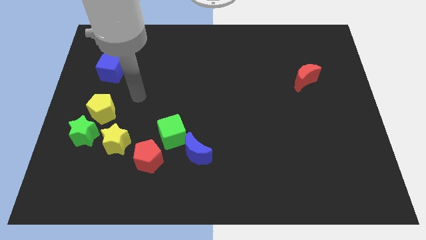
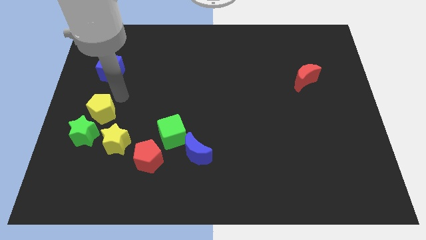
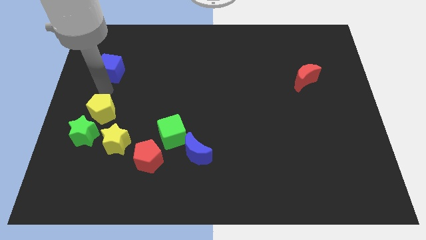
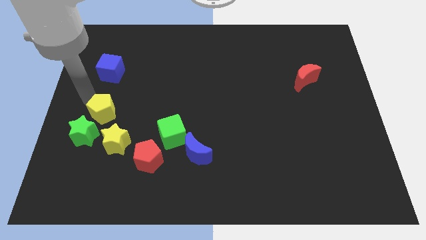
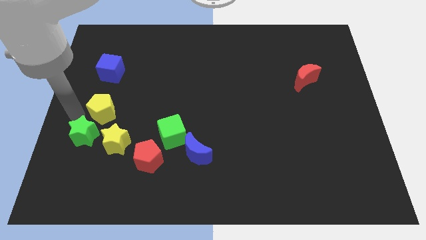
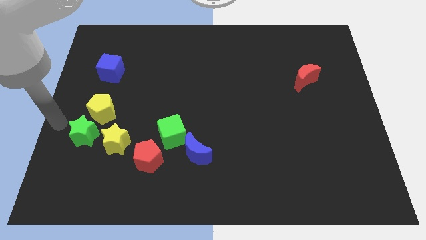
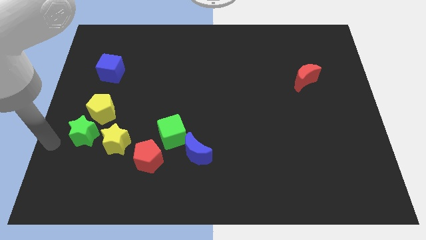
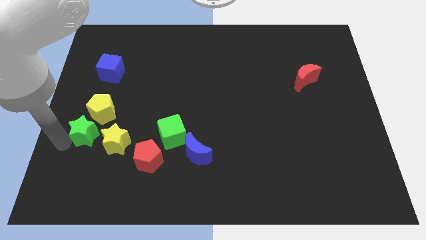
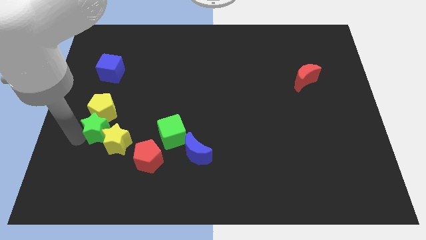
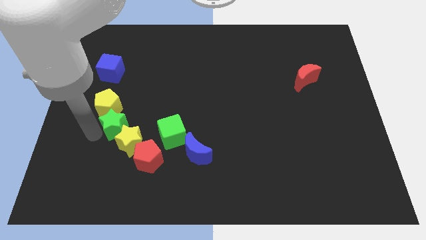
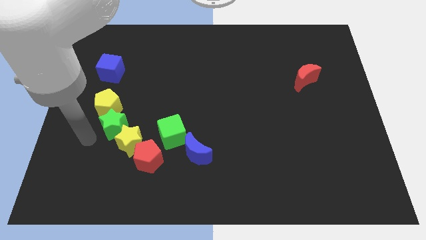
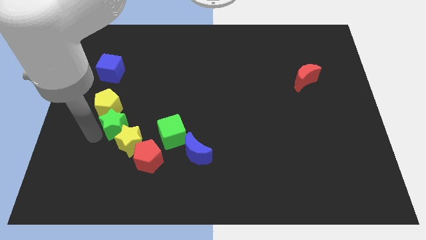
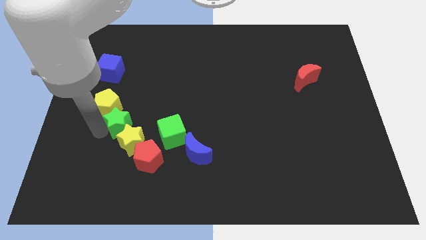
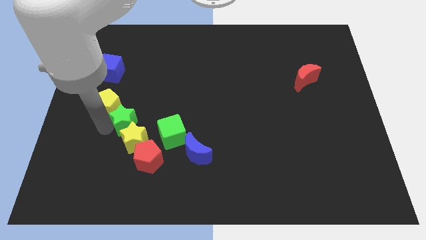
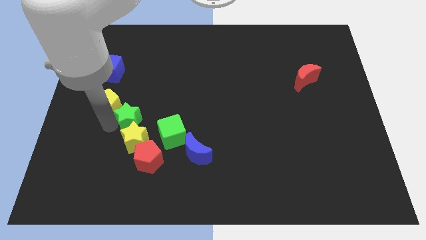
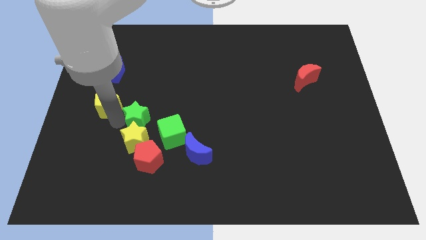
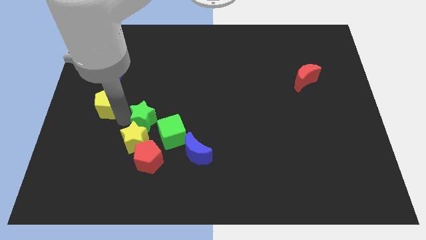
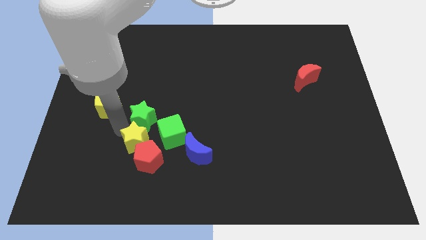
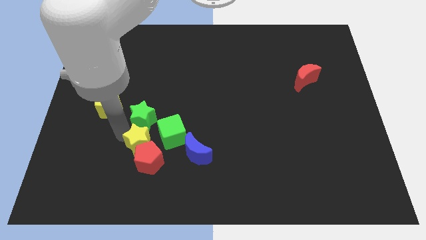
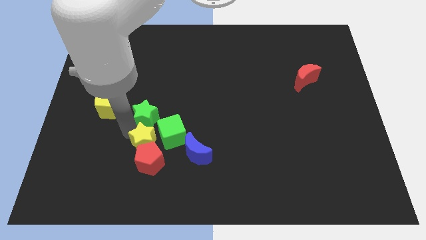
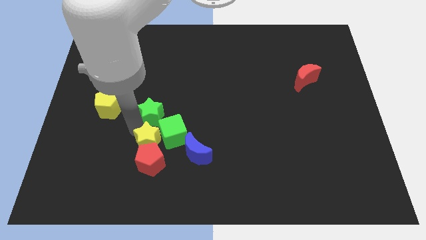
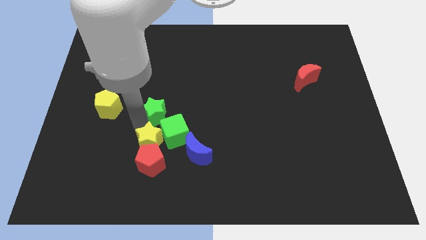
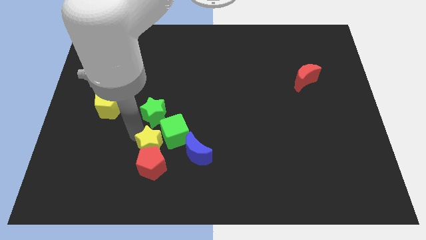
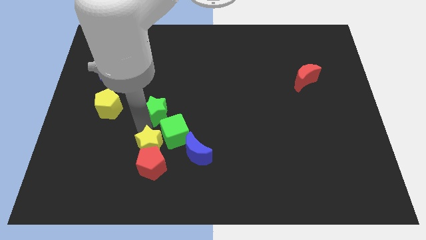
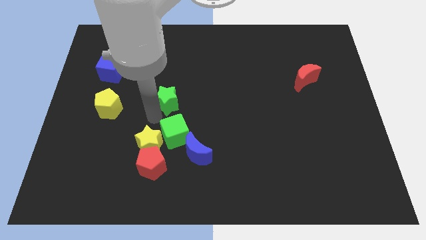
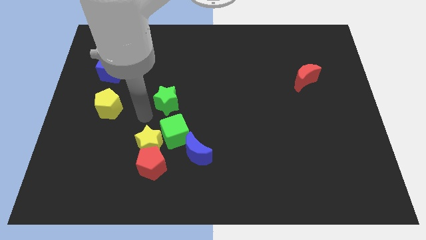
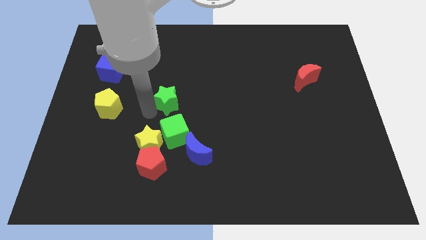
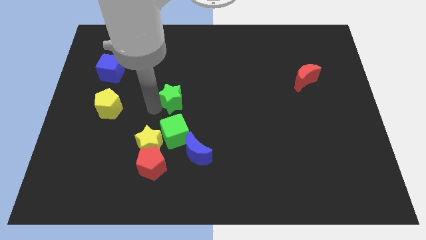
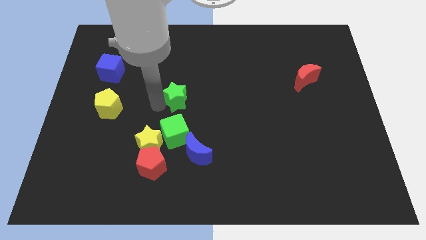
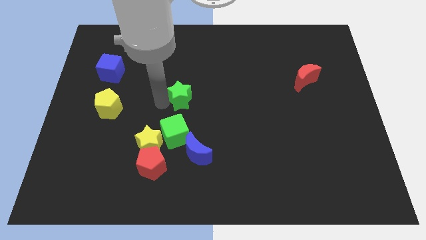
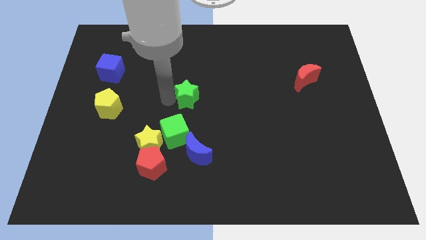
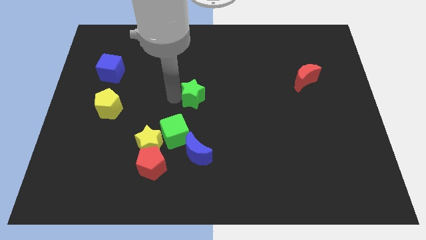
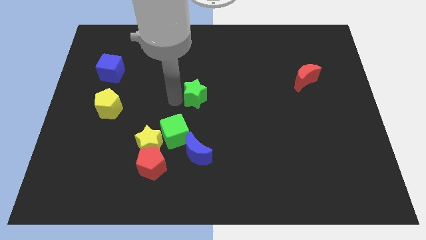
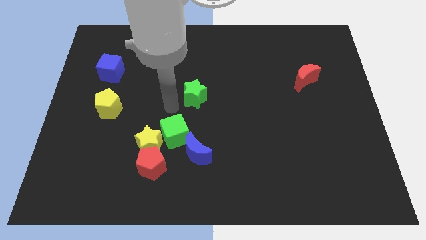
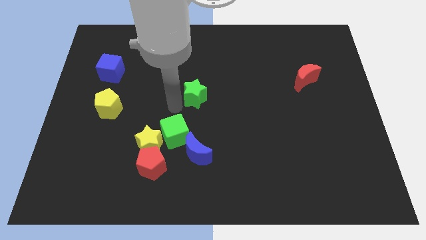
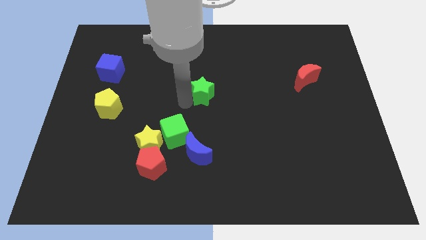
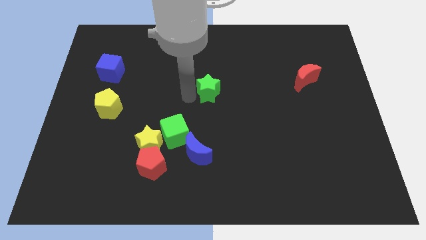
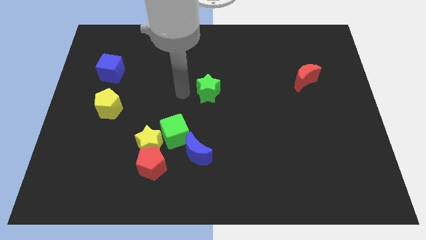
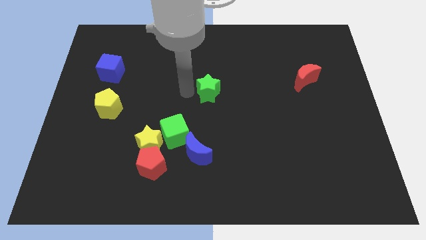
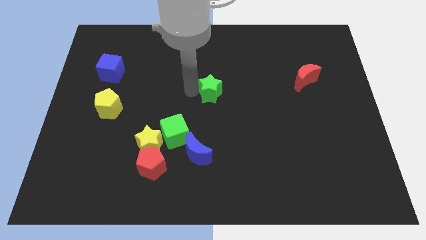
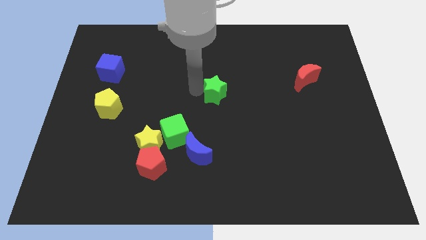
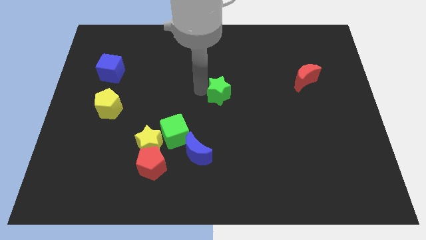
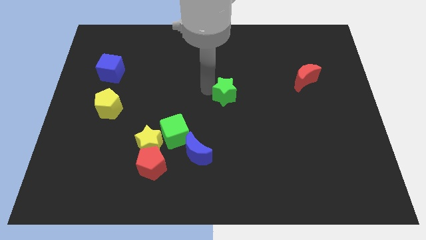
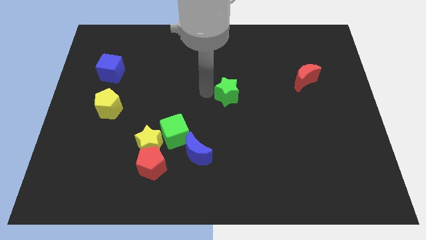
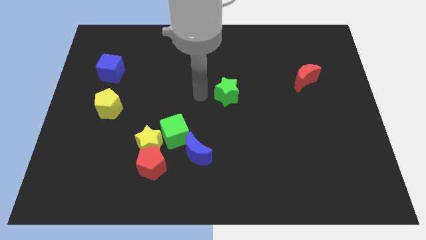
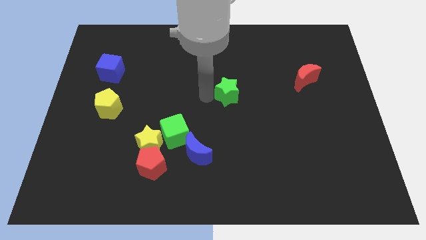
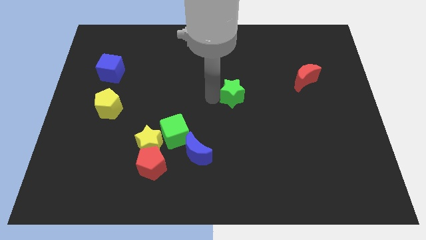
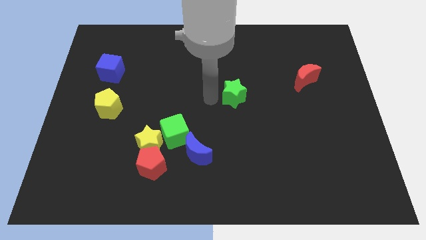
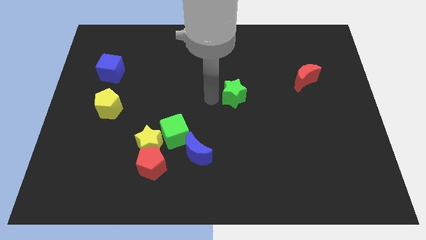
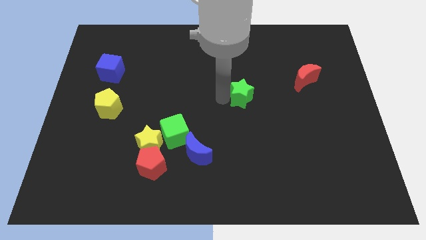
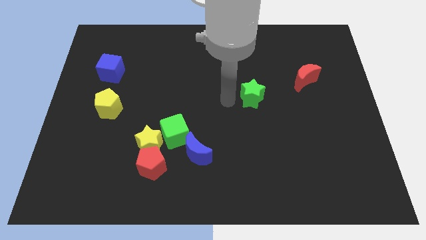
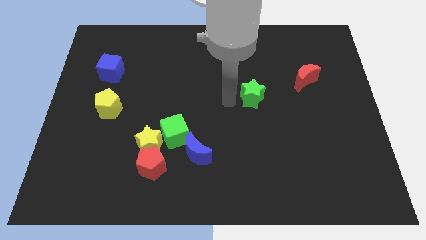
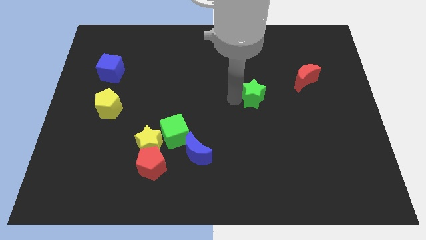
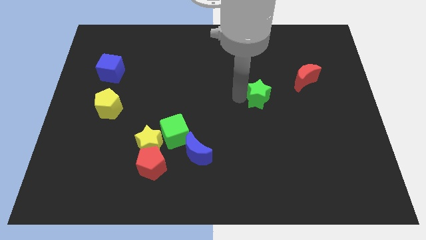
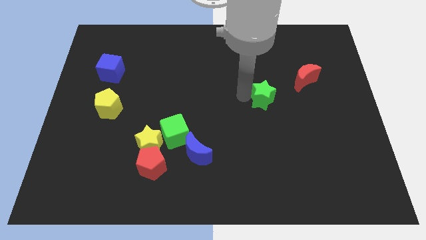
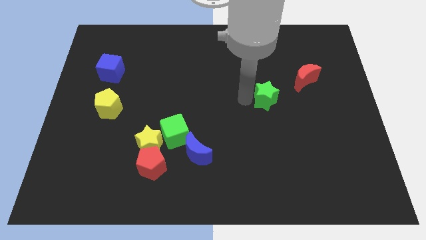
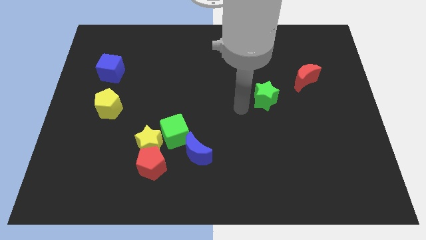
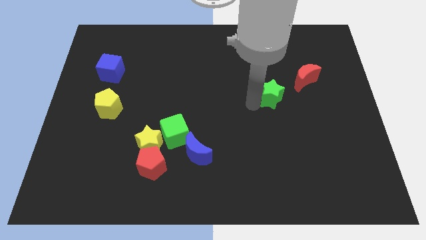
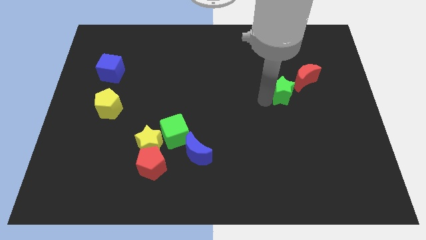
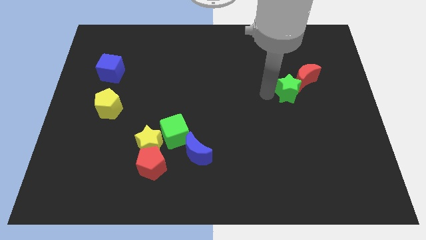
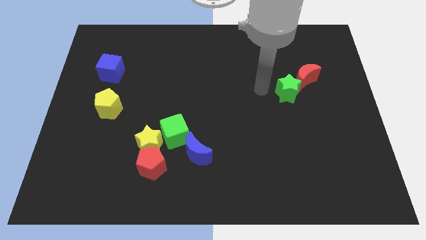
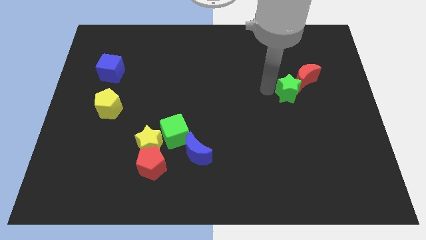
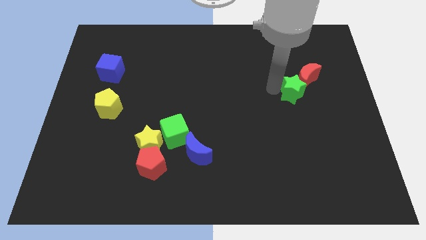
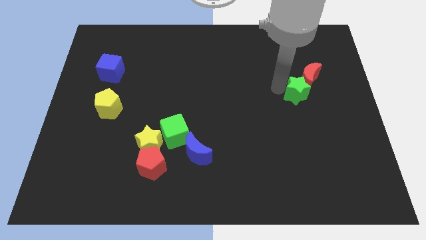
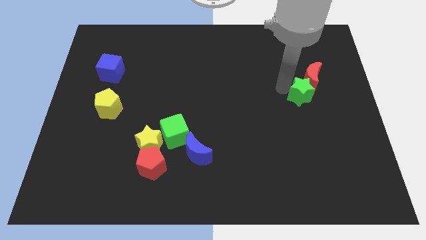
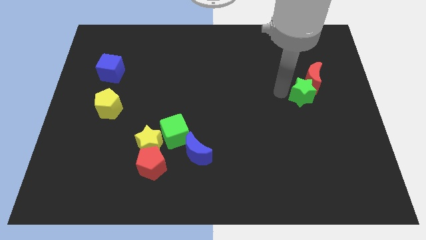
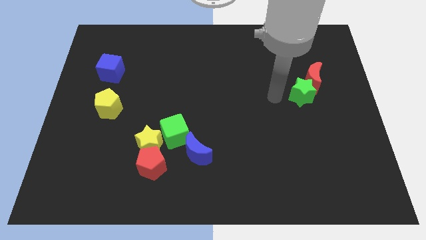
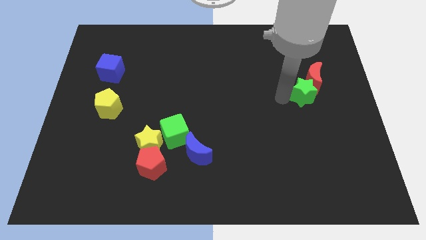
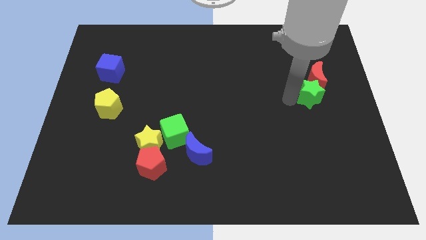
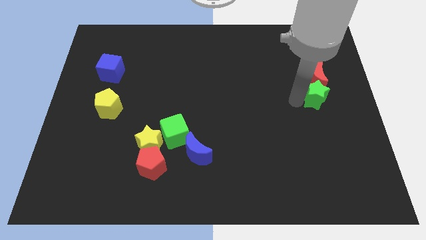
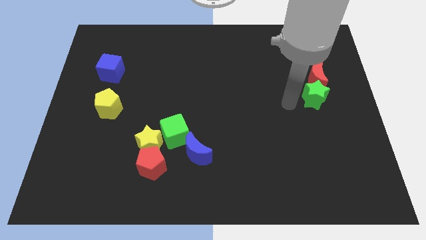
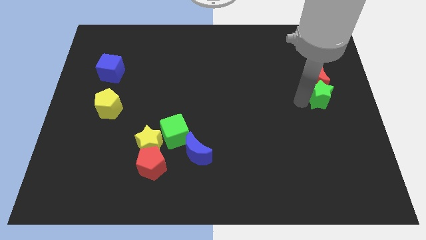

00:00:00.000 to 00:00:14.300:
slide the green star to the right side

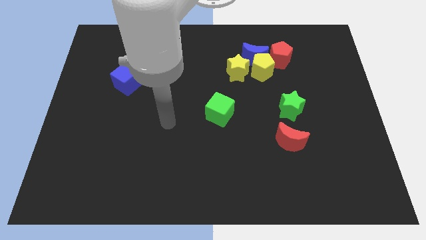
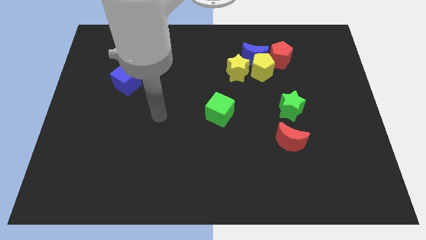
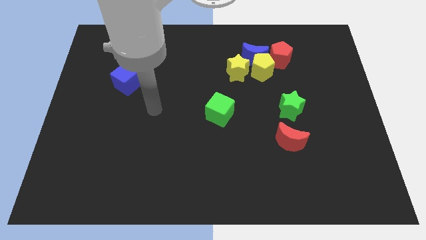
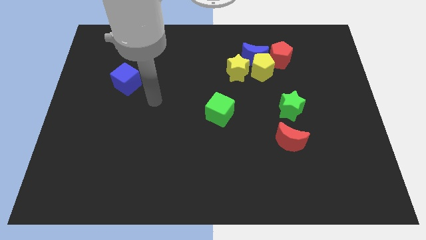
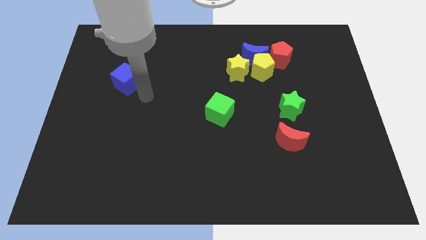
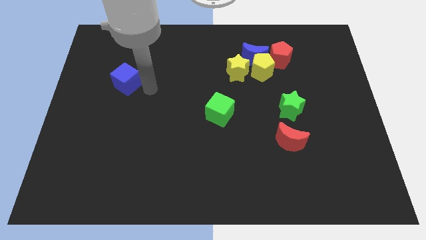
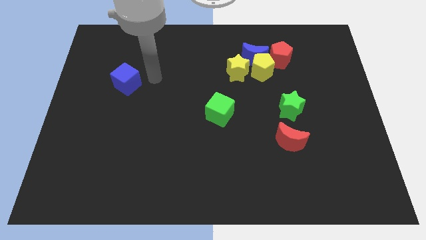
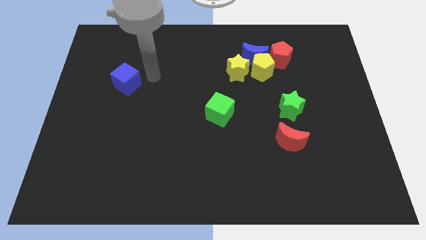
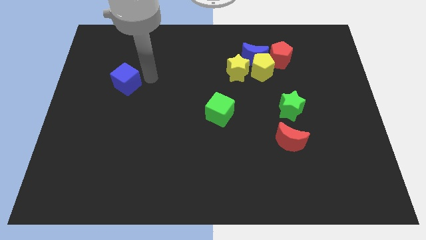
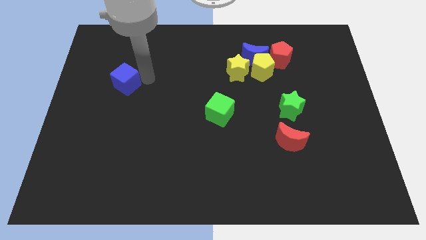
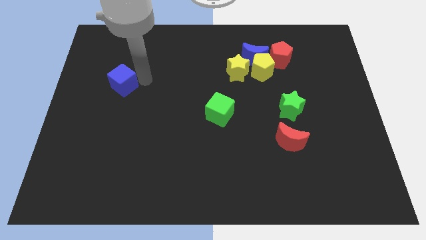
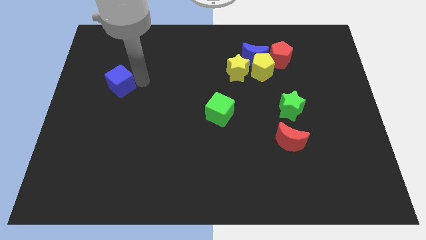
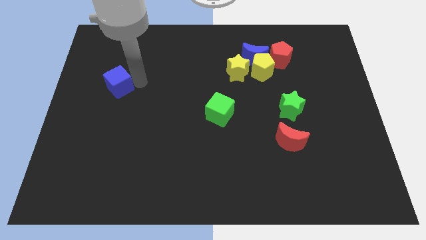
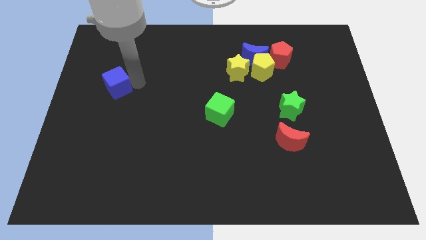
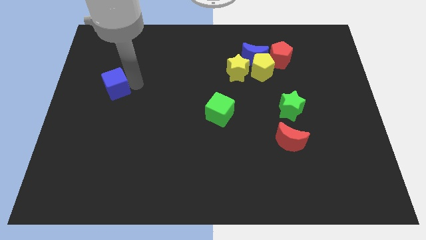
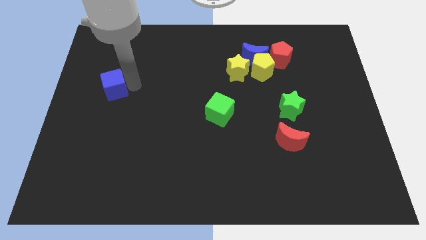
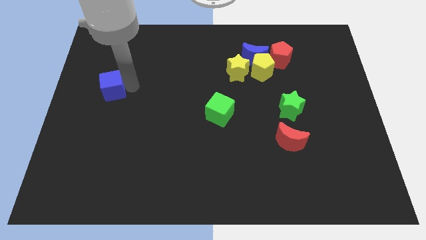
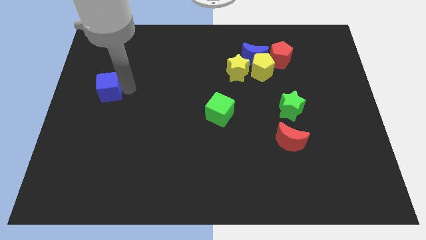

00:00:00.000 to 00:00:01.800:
move the blue cube to the left side of the board
